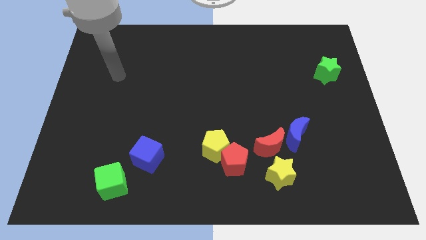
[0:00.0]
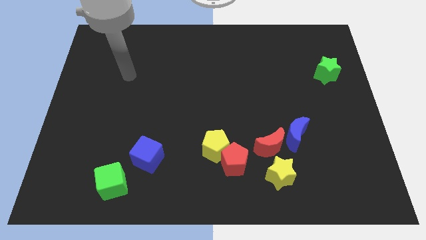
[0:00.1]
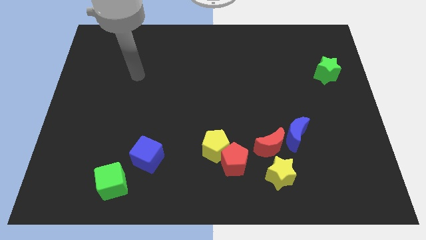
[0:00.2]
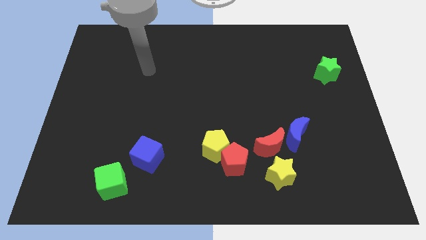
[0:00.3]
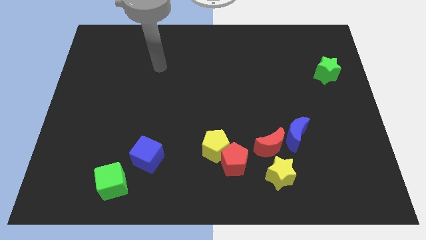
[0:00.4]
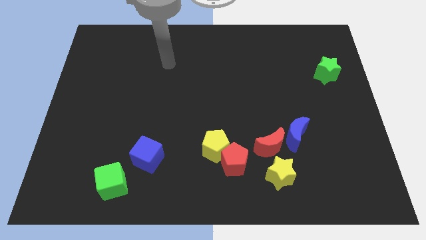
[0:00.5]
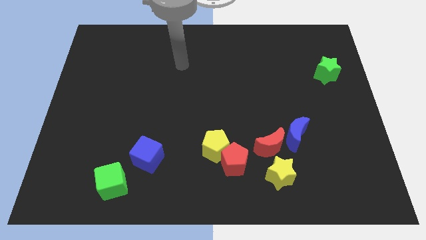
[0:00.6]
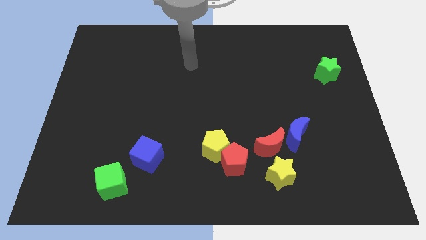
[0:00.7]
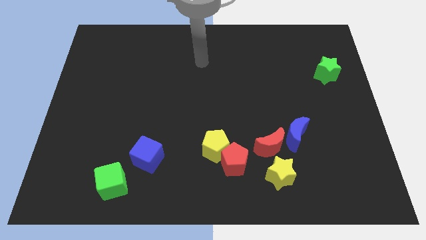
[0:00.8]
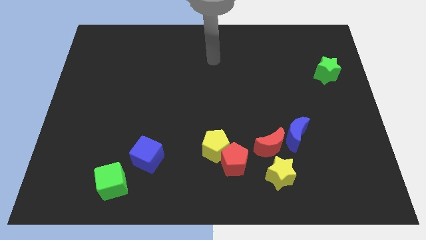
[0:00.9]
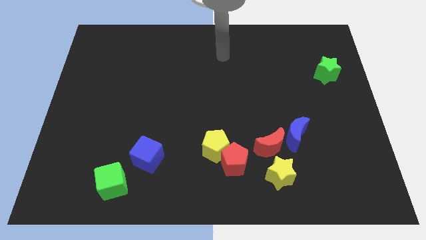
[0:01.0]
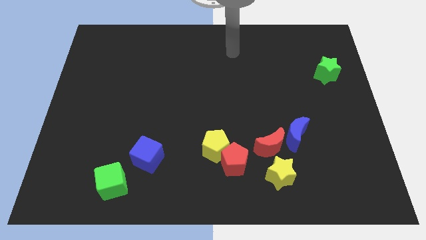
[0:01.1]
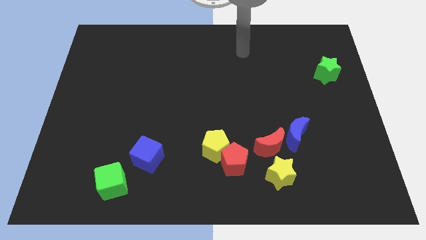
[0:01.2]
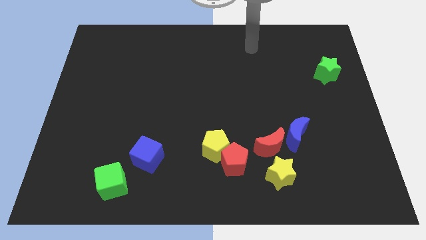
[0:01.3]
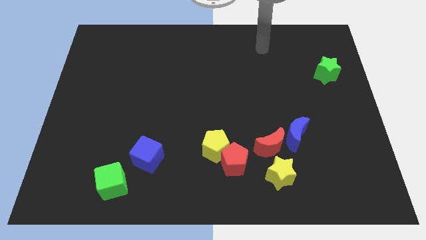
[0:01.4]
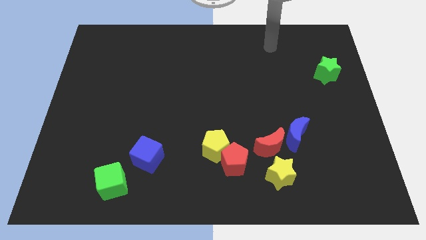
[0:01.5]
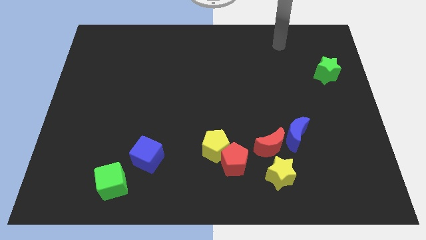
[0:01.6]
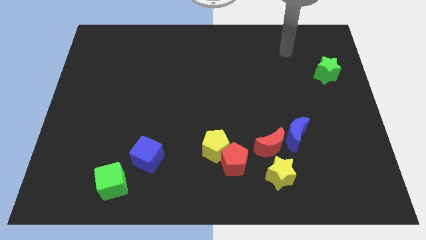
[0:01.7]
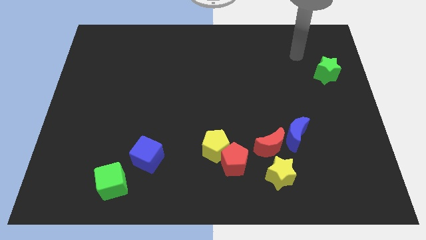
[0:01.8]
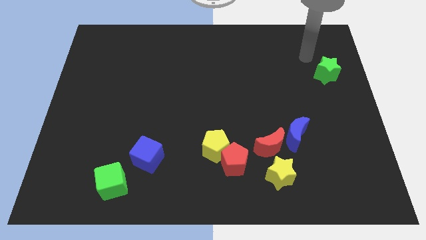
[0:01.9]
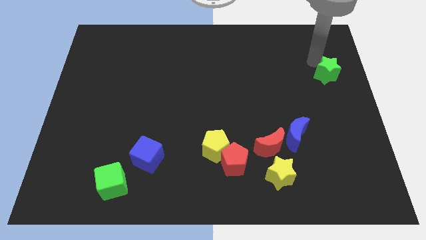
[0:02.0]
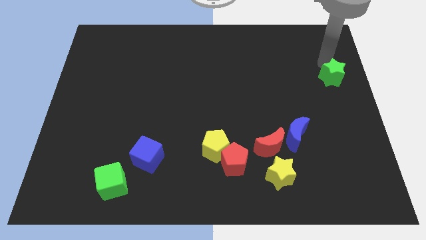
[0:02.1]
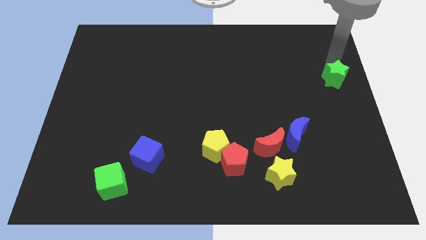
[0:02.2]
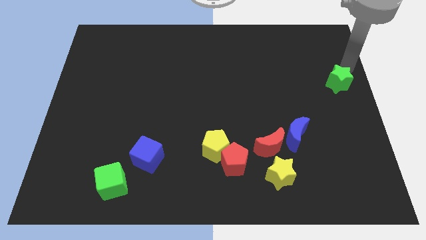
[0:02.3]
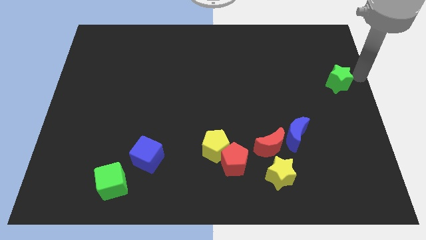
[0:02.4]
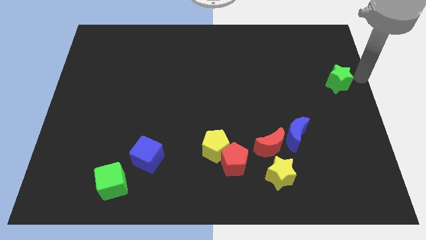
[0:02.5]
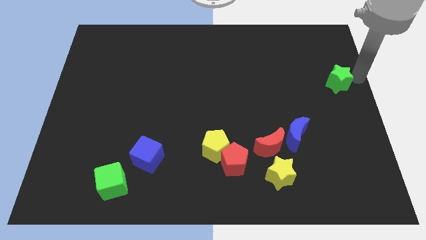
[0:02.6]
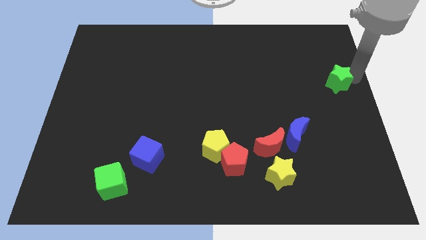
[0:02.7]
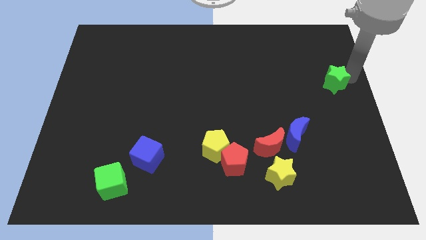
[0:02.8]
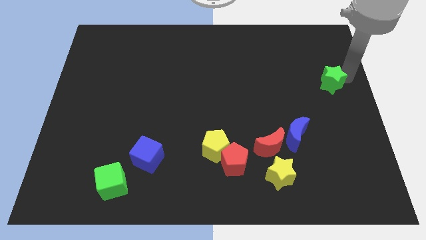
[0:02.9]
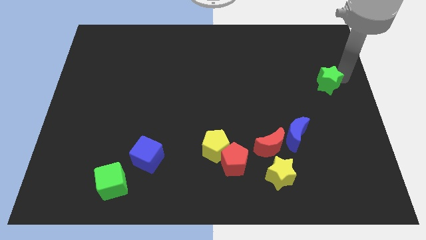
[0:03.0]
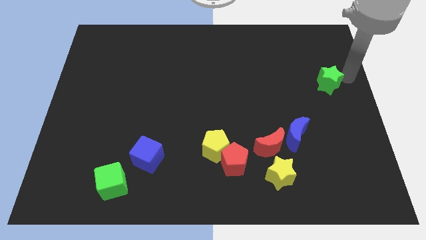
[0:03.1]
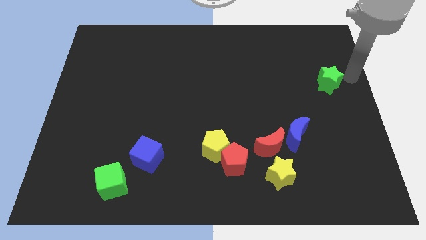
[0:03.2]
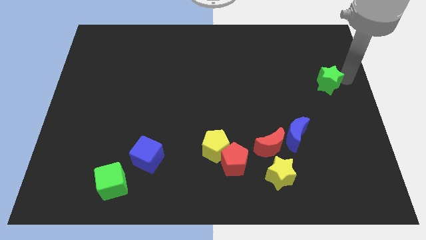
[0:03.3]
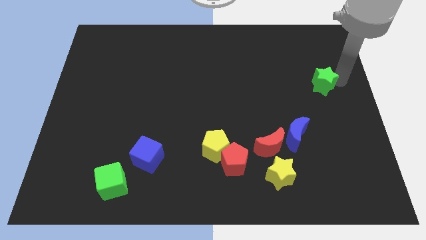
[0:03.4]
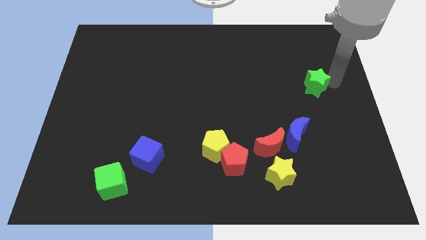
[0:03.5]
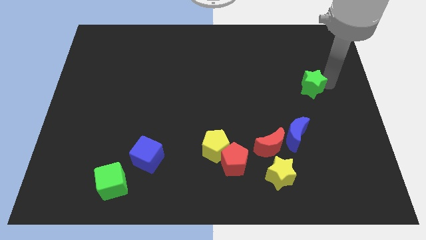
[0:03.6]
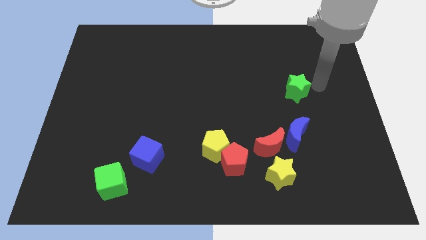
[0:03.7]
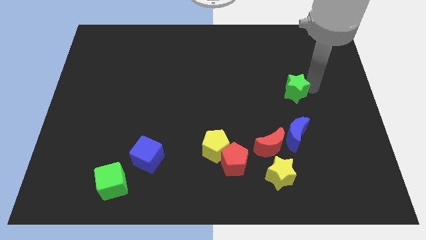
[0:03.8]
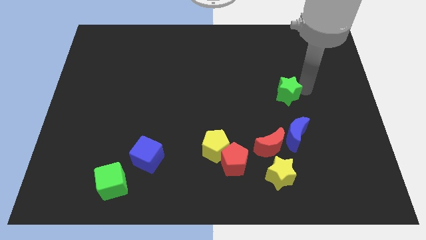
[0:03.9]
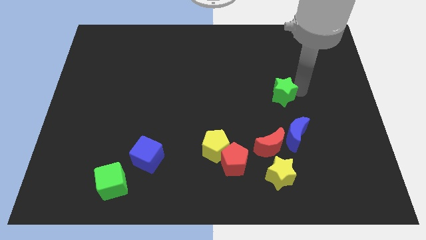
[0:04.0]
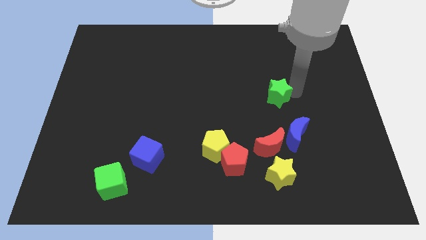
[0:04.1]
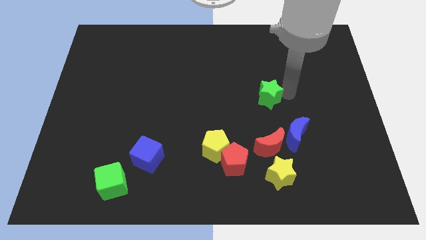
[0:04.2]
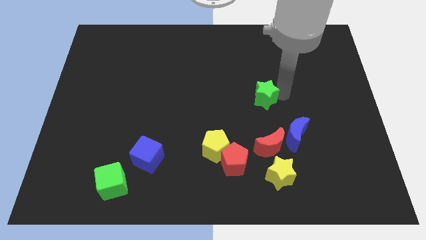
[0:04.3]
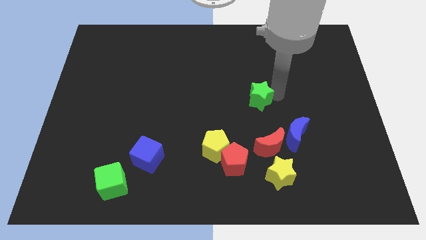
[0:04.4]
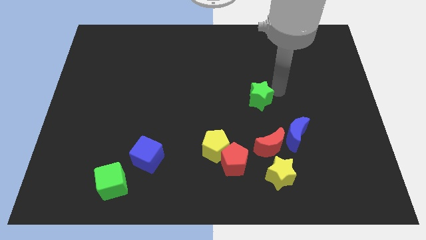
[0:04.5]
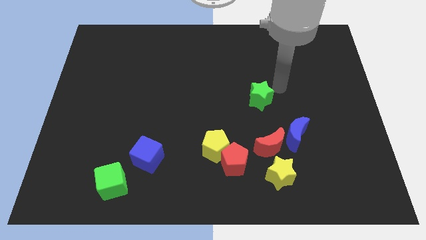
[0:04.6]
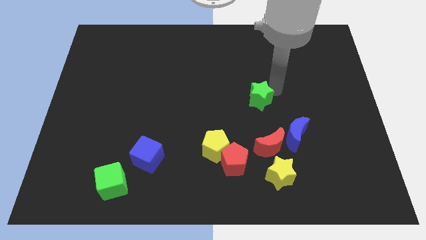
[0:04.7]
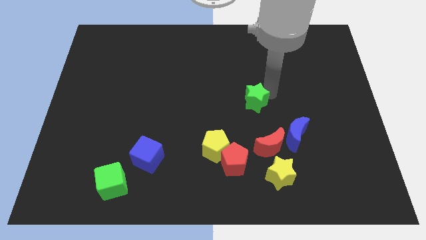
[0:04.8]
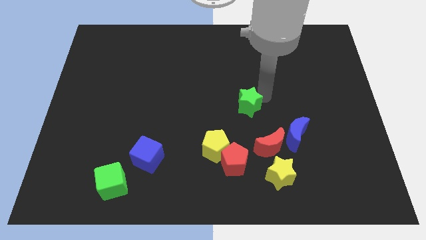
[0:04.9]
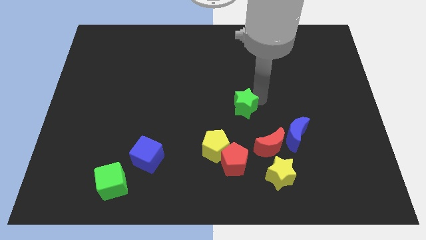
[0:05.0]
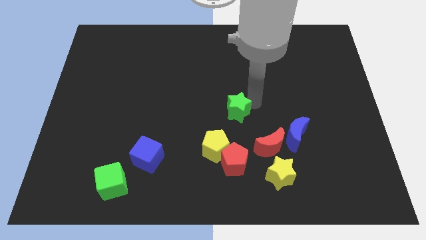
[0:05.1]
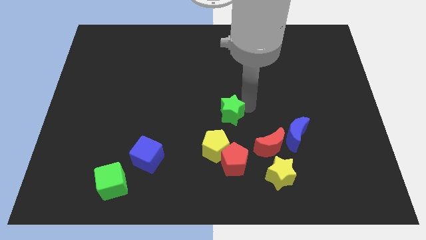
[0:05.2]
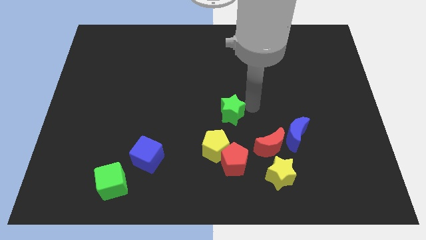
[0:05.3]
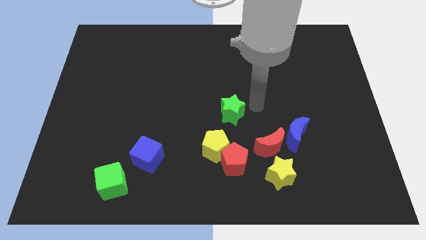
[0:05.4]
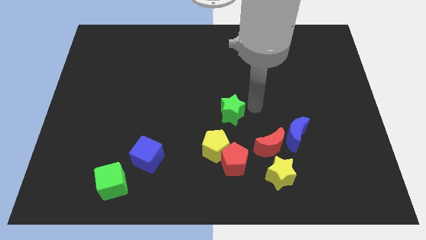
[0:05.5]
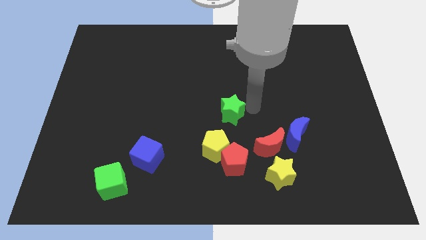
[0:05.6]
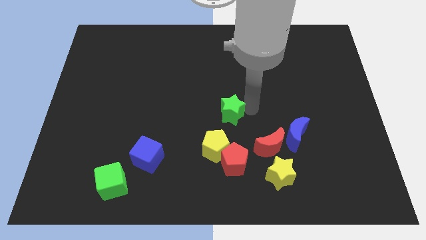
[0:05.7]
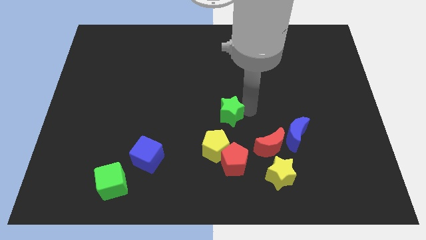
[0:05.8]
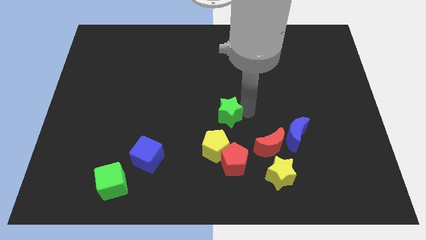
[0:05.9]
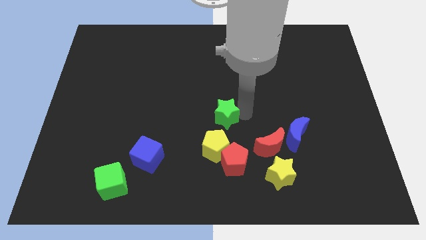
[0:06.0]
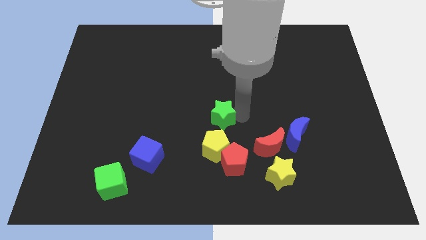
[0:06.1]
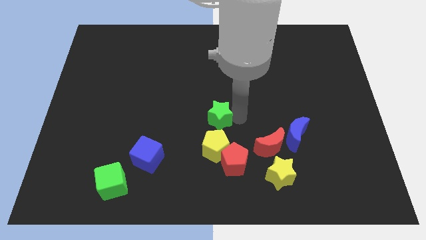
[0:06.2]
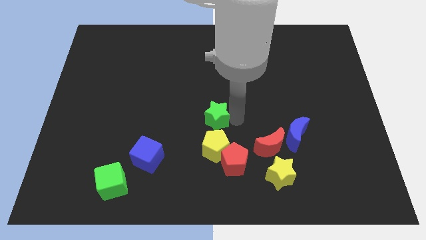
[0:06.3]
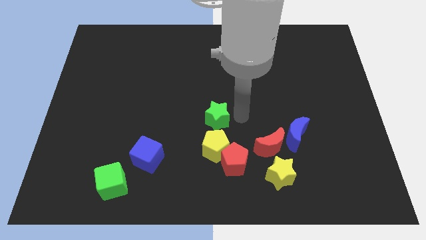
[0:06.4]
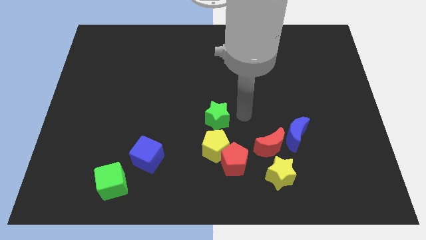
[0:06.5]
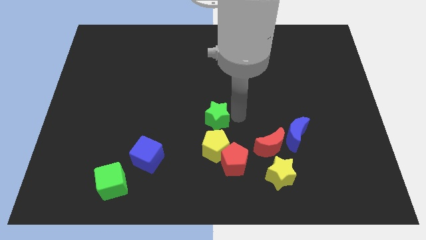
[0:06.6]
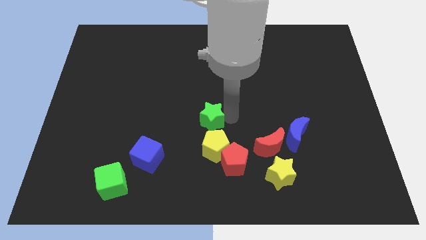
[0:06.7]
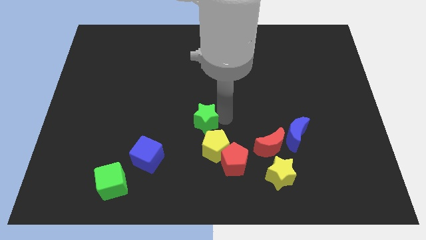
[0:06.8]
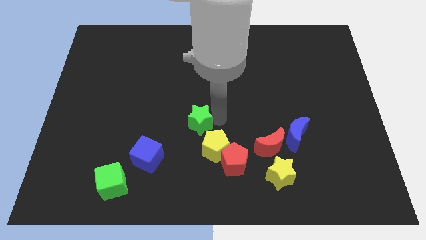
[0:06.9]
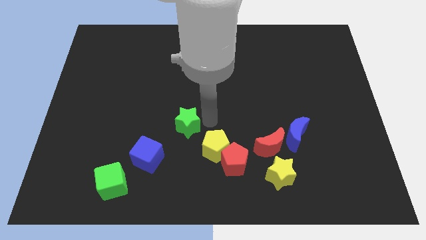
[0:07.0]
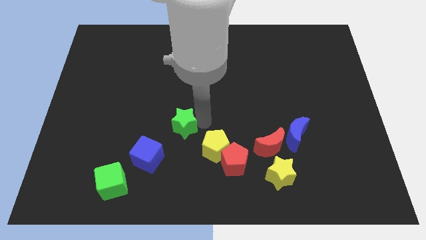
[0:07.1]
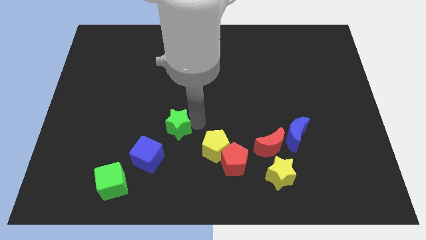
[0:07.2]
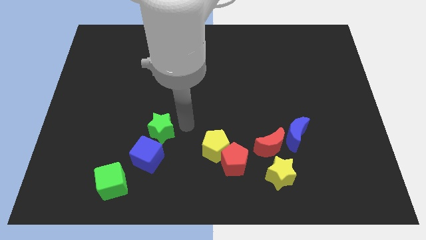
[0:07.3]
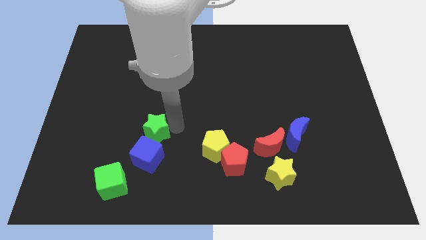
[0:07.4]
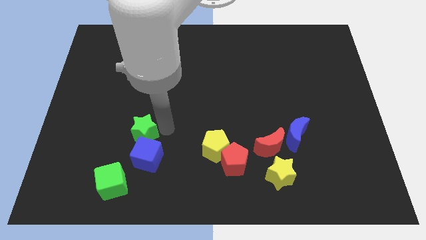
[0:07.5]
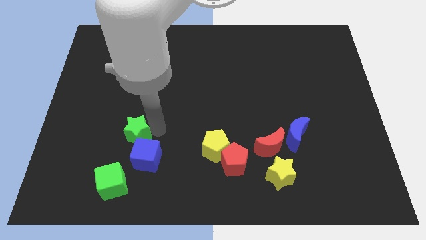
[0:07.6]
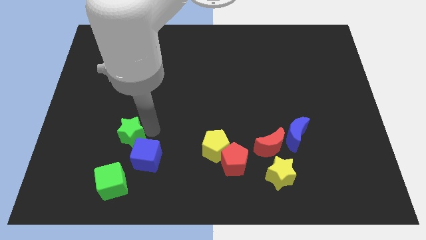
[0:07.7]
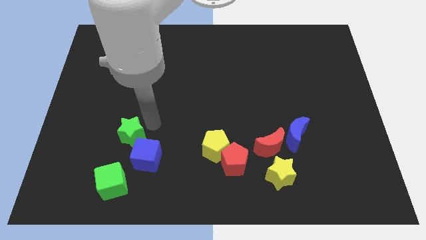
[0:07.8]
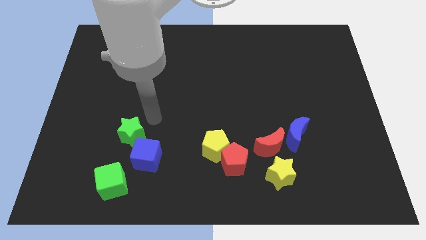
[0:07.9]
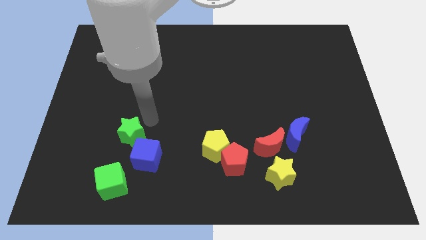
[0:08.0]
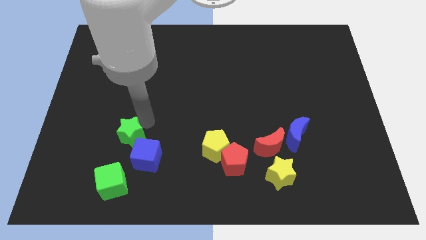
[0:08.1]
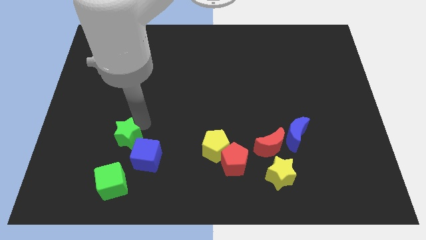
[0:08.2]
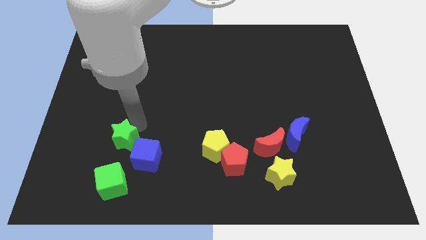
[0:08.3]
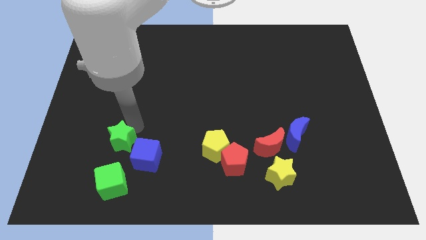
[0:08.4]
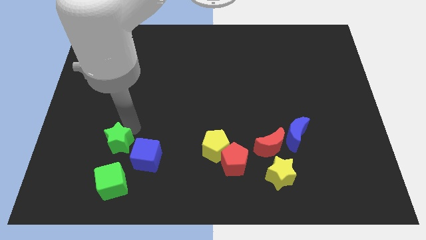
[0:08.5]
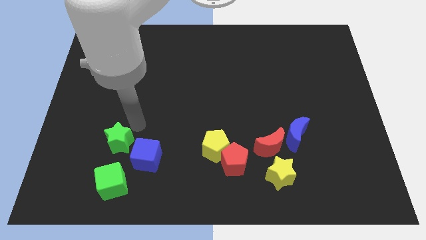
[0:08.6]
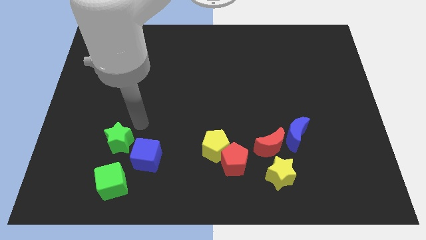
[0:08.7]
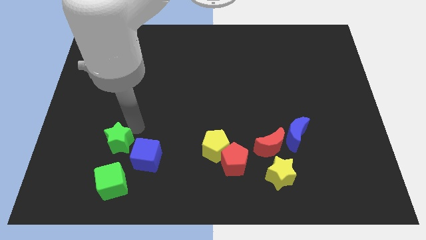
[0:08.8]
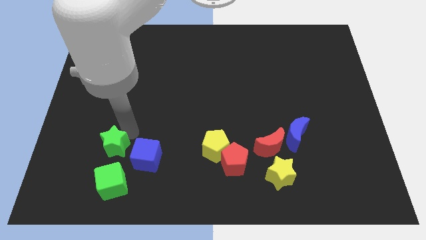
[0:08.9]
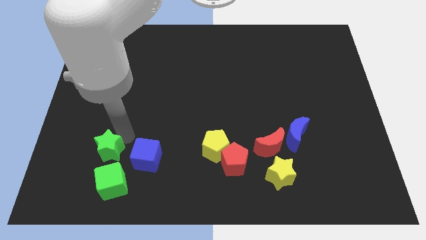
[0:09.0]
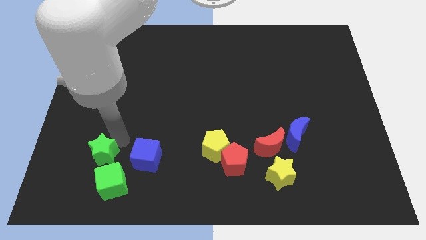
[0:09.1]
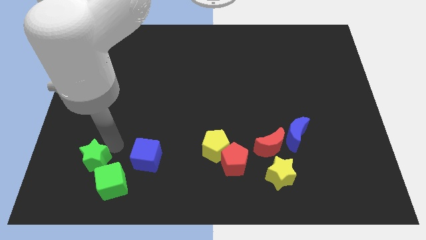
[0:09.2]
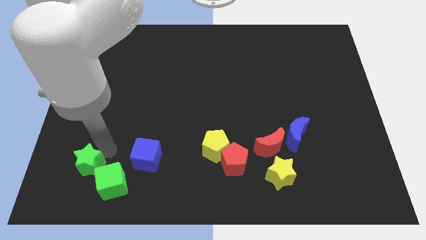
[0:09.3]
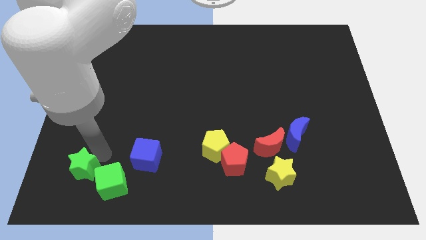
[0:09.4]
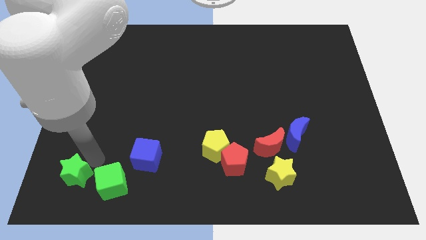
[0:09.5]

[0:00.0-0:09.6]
slide the green star to the bottom left corner
